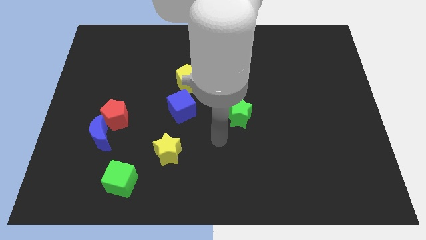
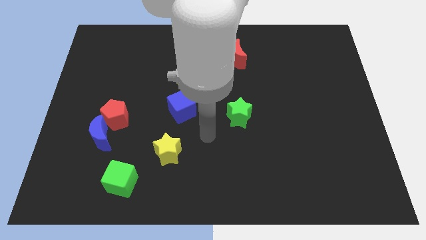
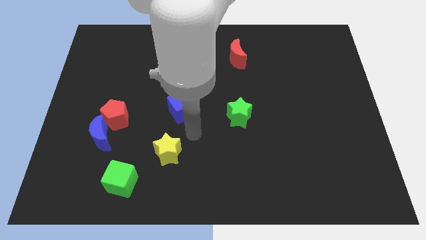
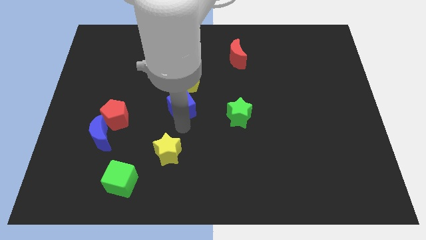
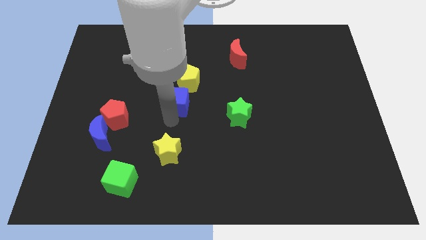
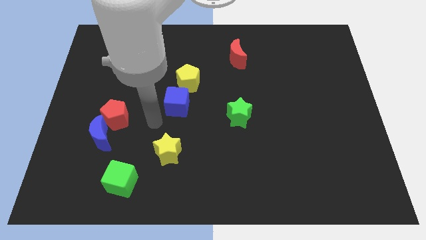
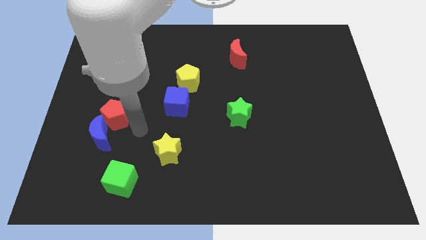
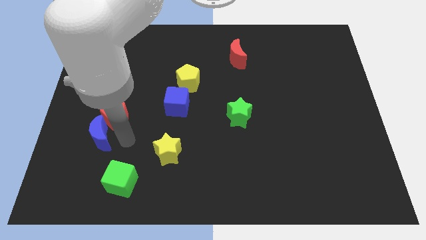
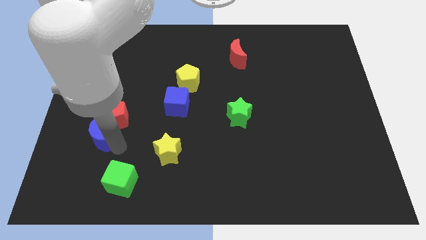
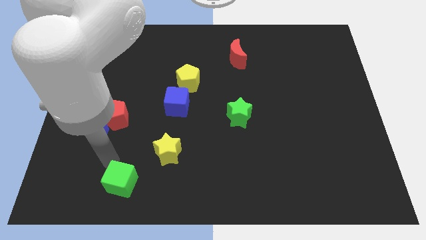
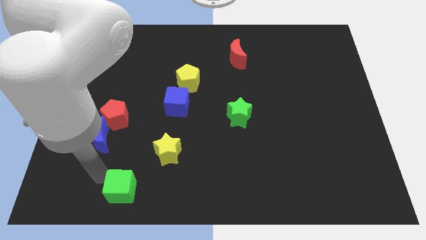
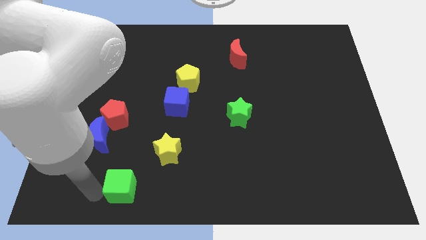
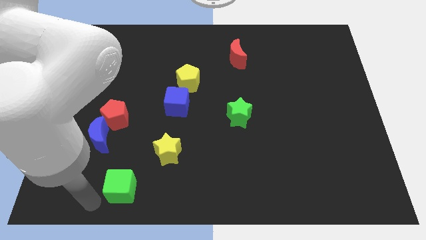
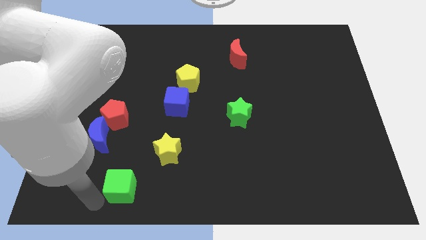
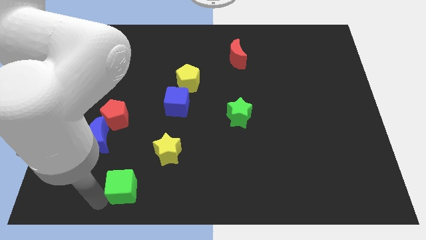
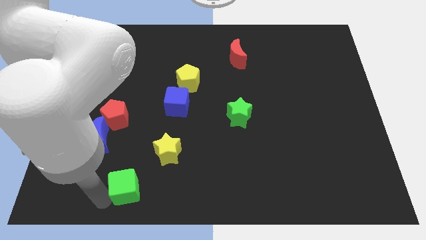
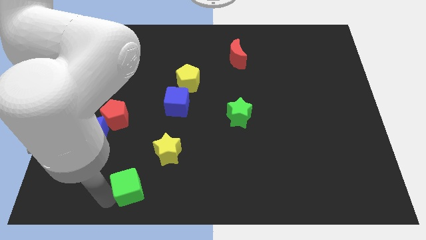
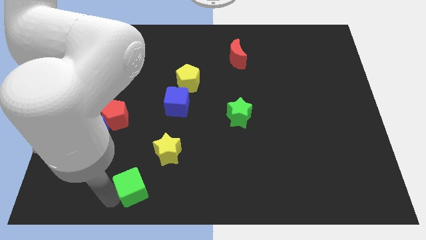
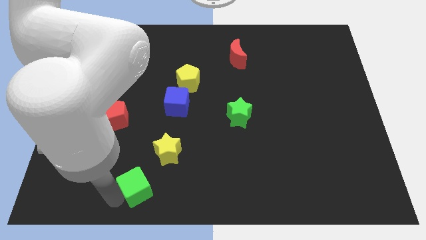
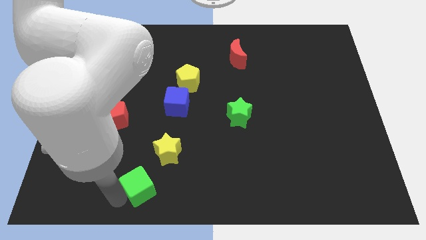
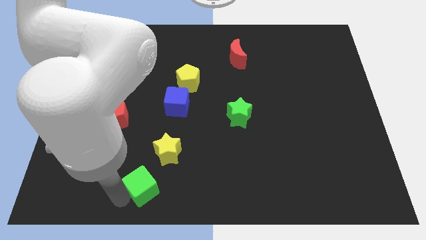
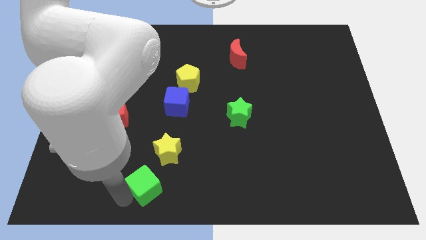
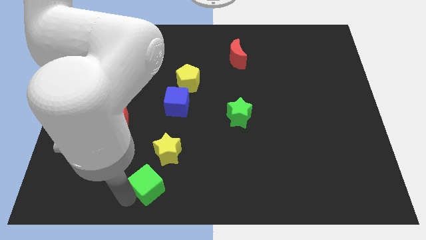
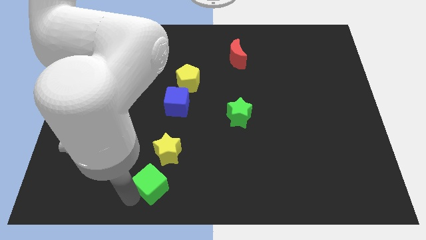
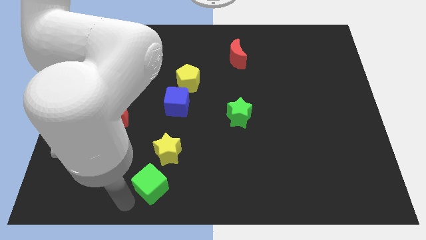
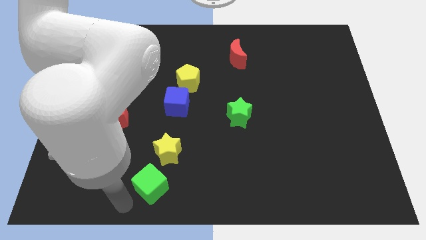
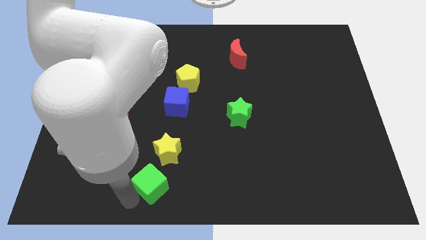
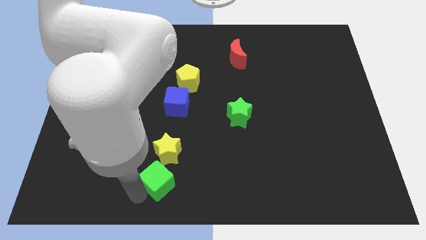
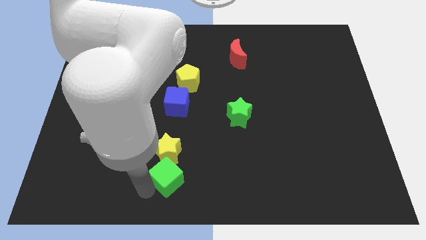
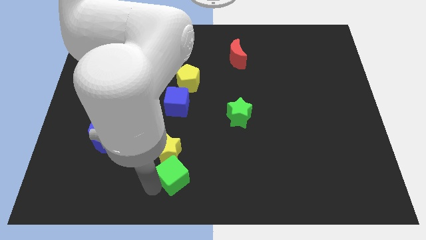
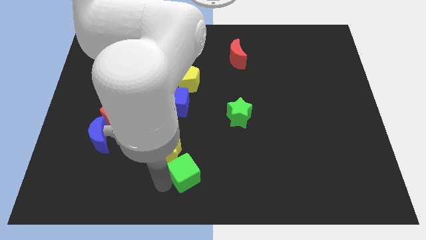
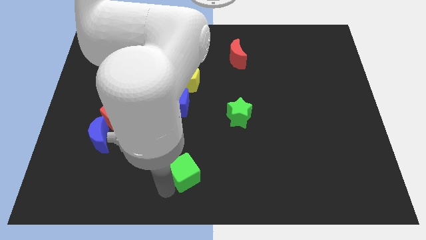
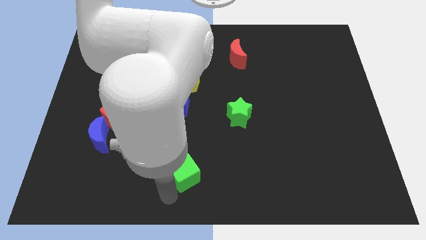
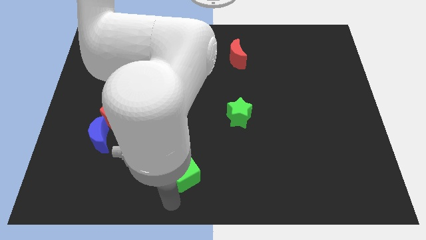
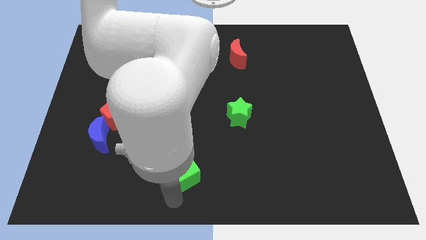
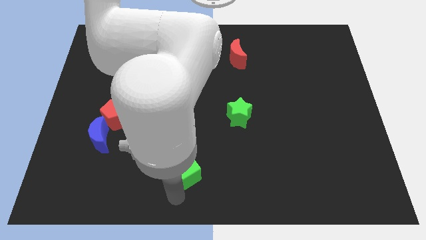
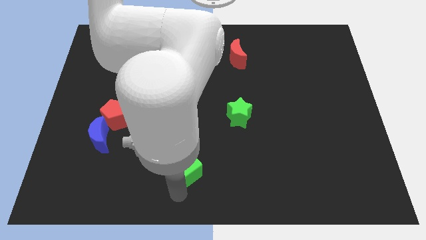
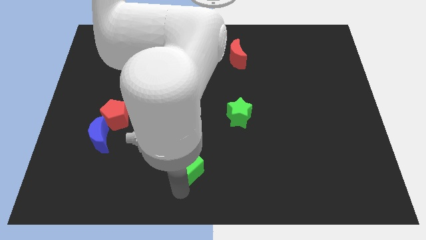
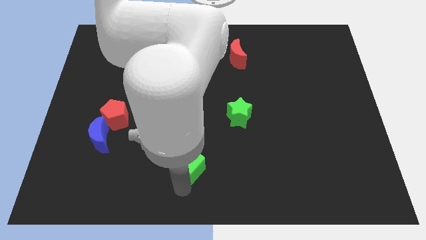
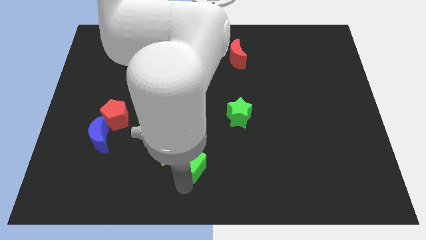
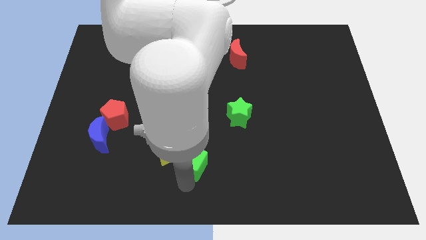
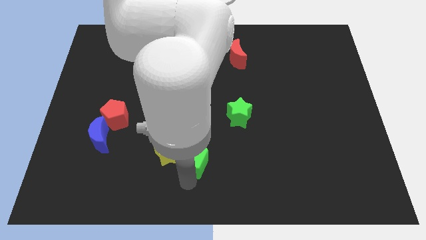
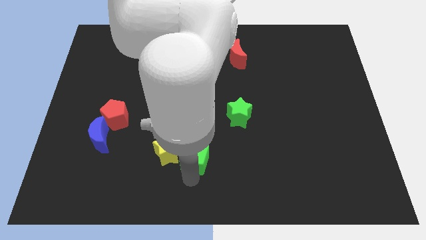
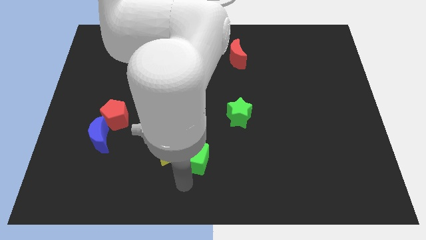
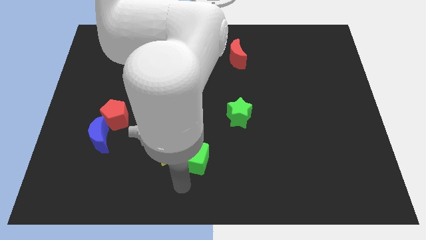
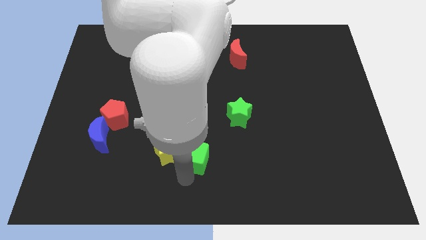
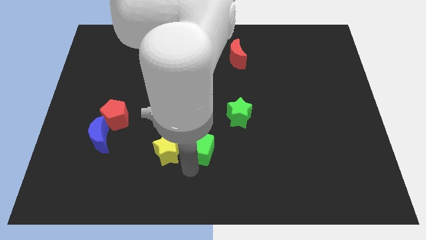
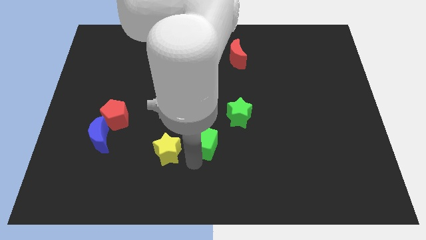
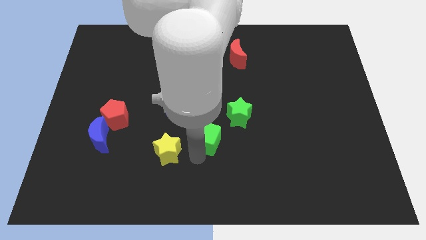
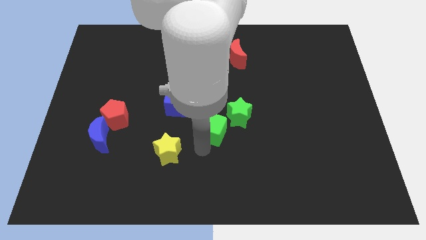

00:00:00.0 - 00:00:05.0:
move the green cube upwards and to the right

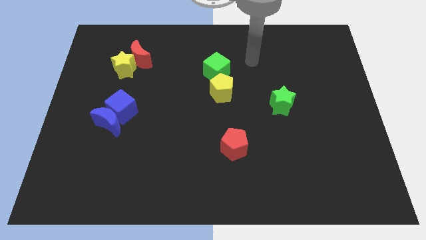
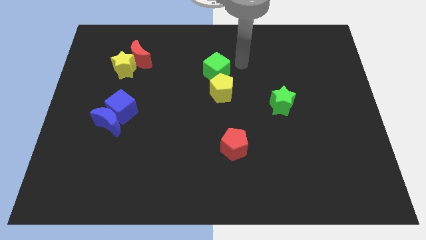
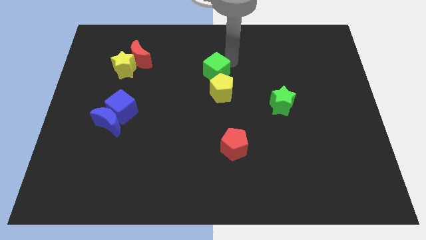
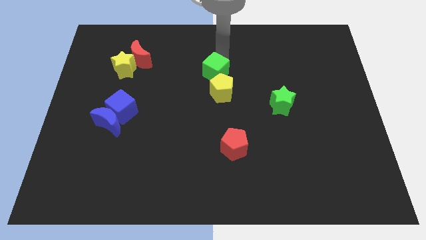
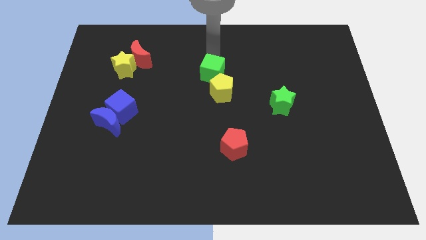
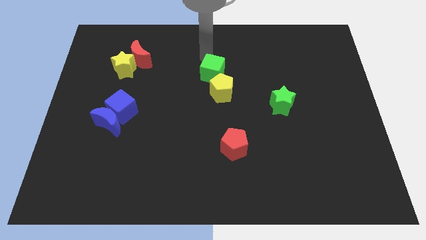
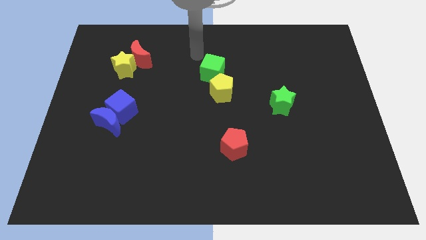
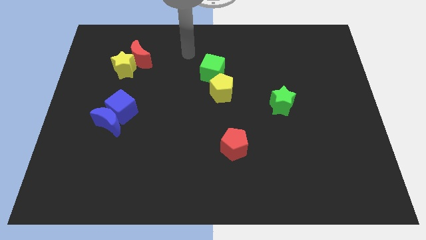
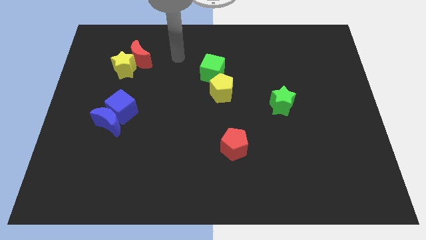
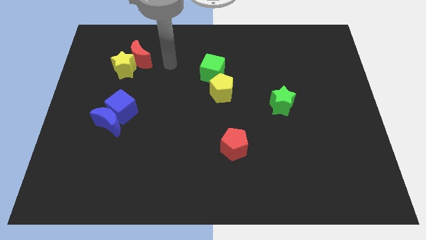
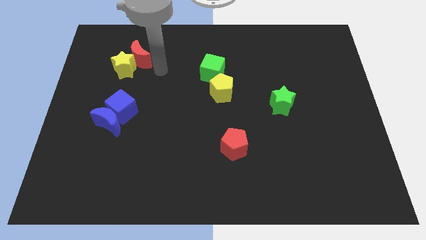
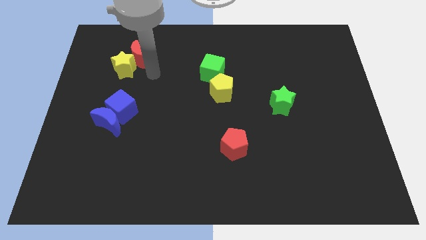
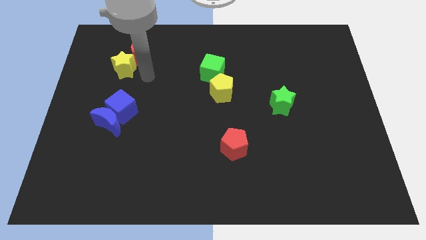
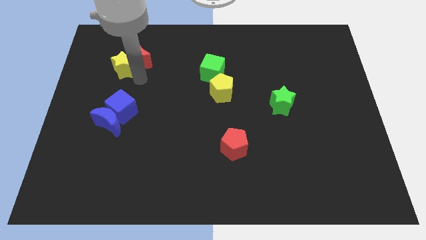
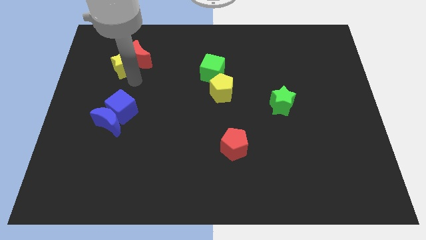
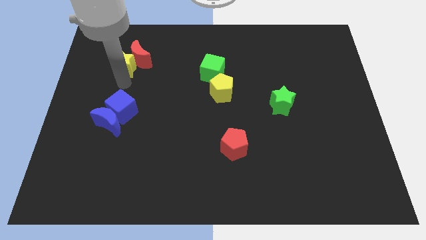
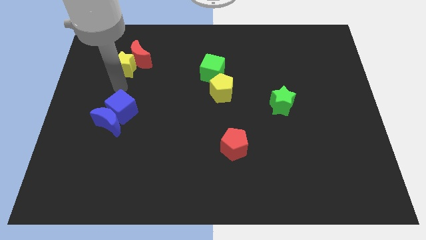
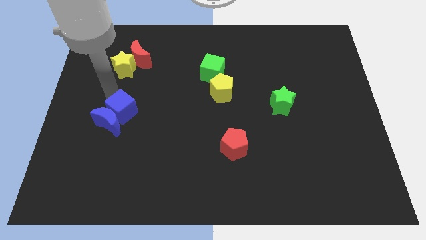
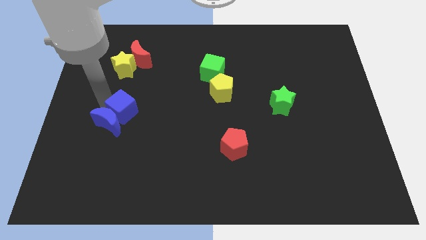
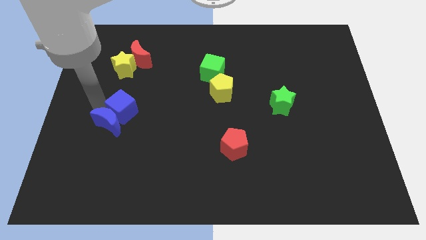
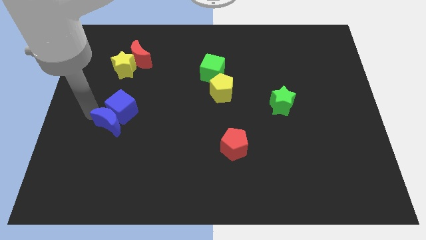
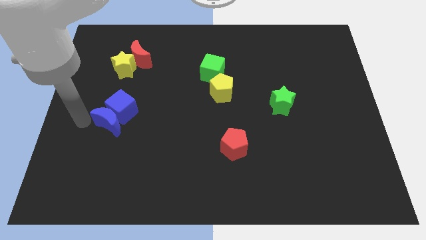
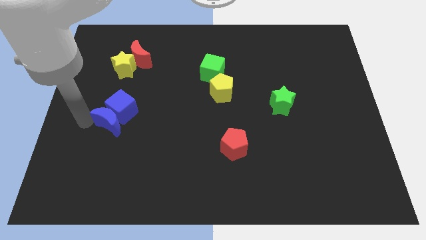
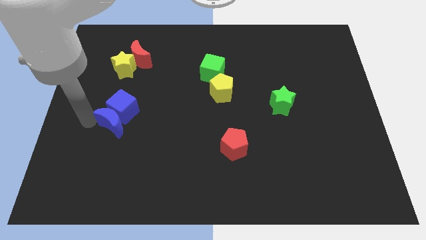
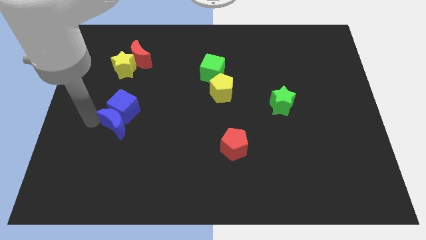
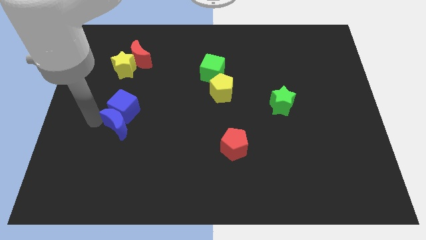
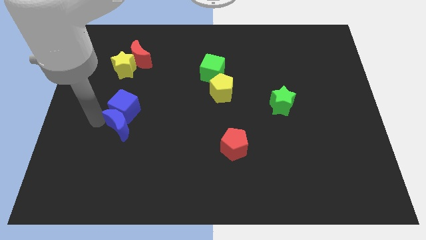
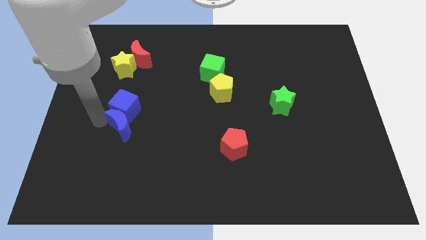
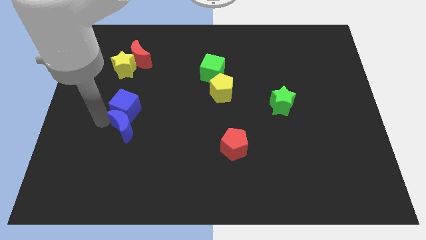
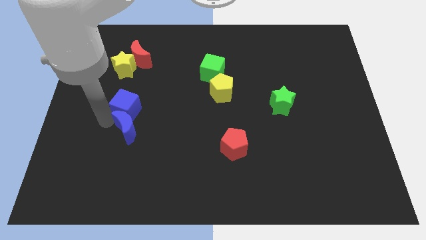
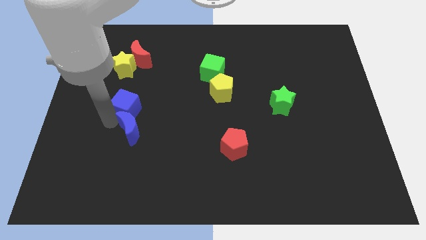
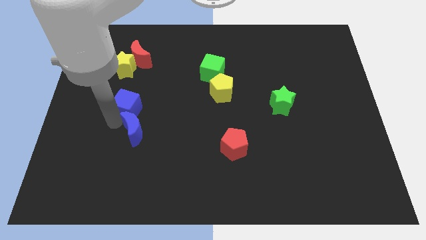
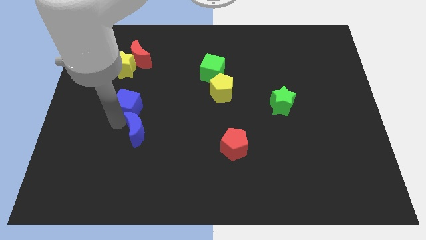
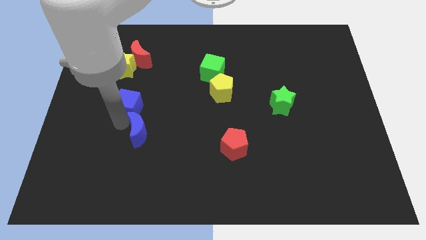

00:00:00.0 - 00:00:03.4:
push the blue moon to the right a little bit
